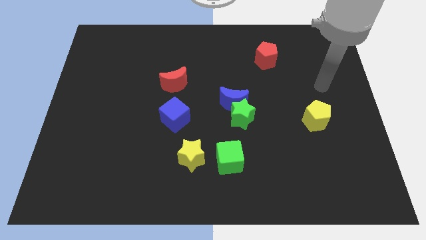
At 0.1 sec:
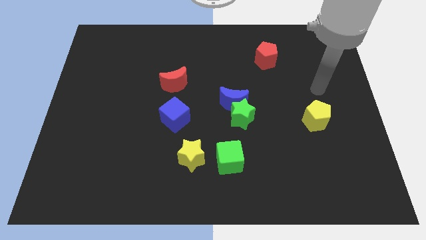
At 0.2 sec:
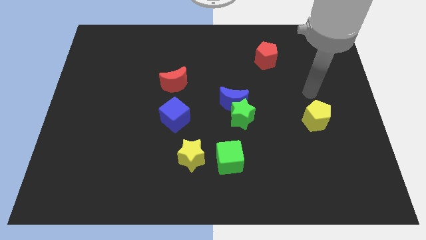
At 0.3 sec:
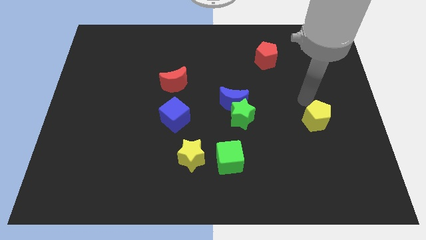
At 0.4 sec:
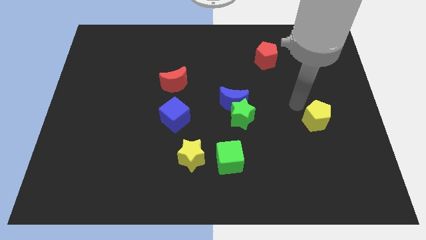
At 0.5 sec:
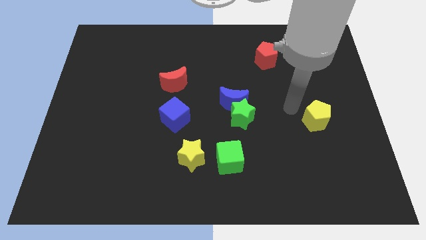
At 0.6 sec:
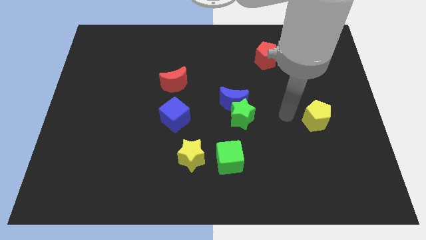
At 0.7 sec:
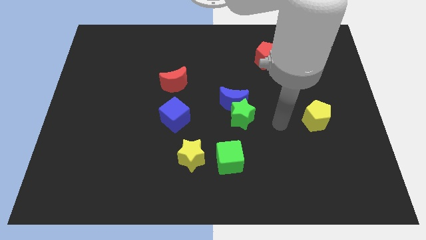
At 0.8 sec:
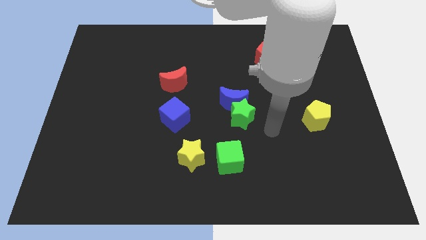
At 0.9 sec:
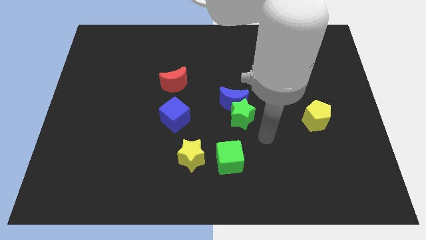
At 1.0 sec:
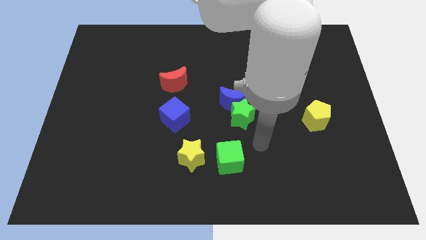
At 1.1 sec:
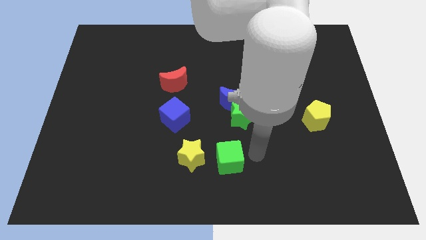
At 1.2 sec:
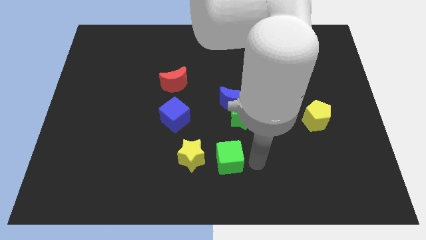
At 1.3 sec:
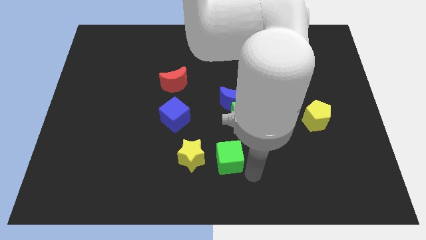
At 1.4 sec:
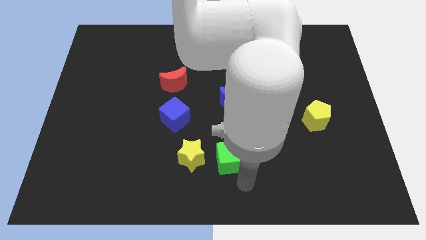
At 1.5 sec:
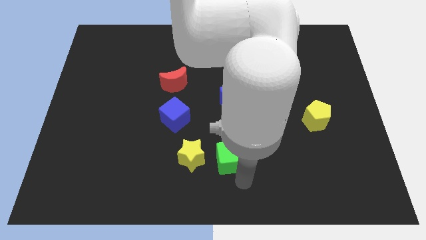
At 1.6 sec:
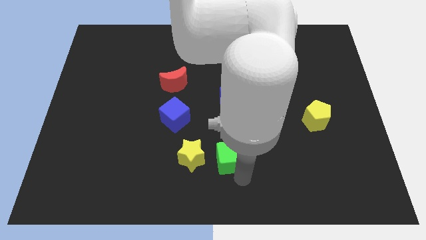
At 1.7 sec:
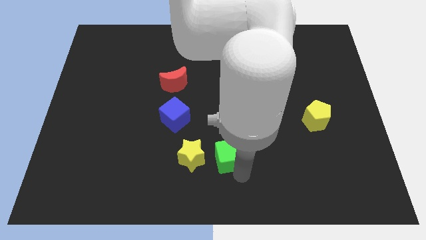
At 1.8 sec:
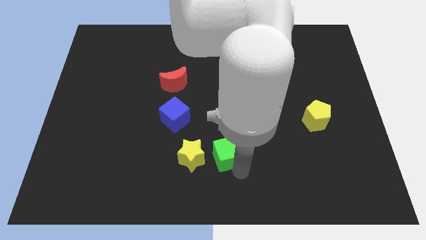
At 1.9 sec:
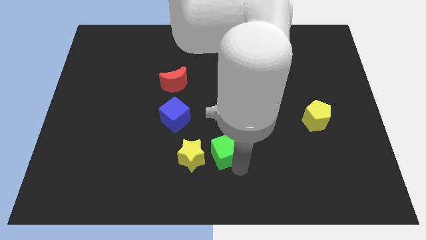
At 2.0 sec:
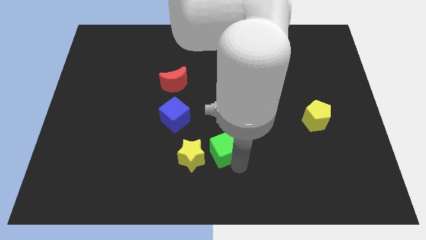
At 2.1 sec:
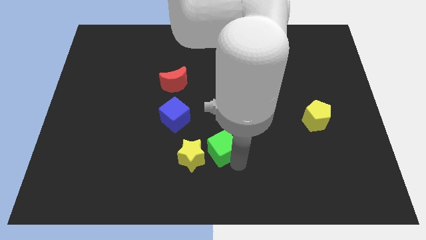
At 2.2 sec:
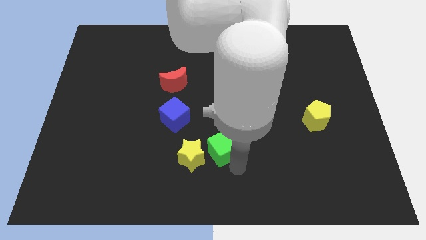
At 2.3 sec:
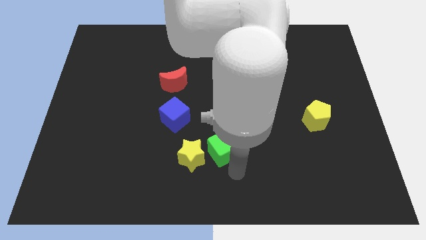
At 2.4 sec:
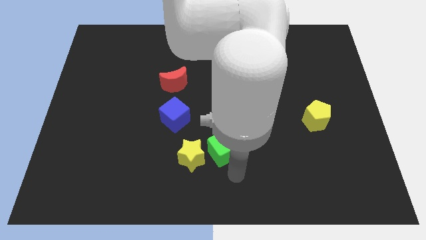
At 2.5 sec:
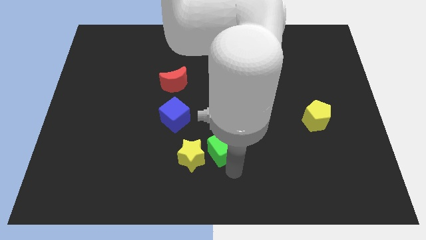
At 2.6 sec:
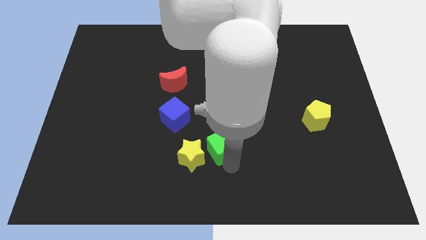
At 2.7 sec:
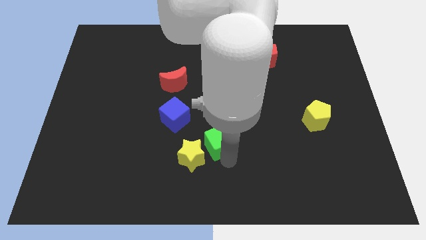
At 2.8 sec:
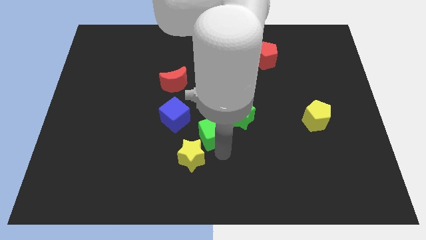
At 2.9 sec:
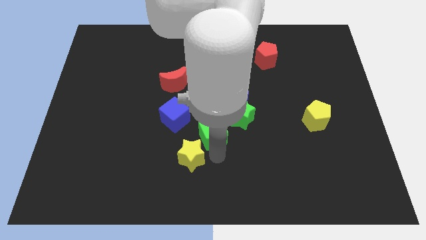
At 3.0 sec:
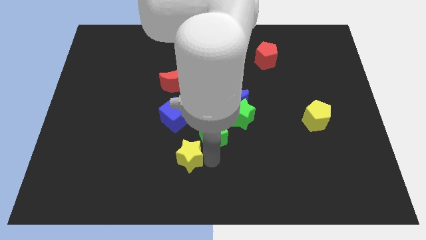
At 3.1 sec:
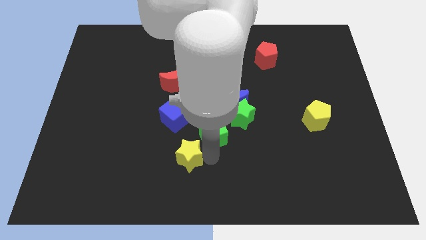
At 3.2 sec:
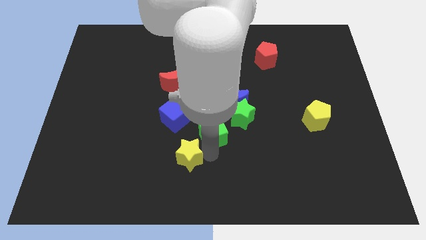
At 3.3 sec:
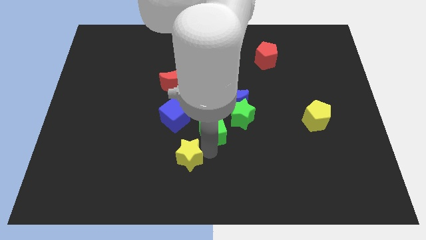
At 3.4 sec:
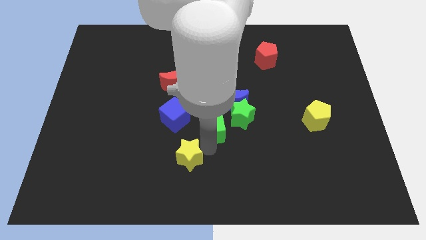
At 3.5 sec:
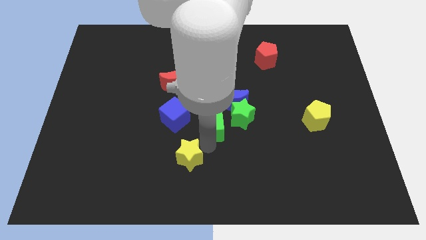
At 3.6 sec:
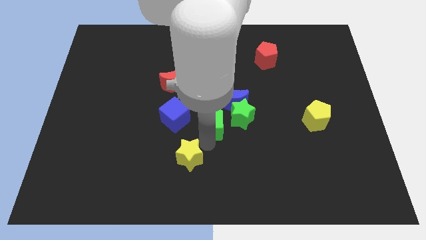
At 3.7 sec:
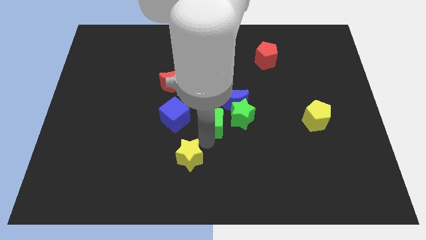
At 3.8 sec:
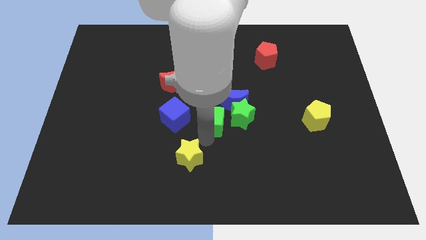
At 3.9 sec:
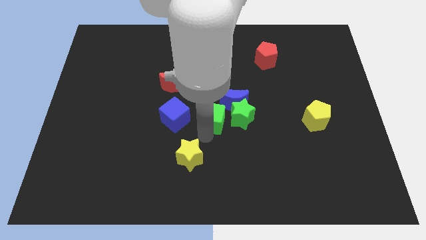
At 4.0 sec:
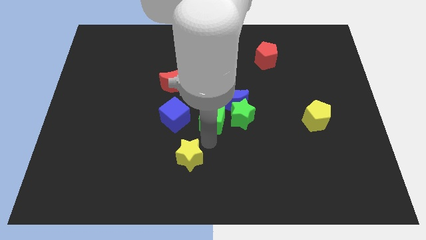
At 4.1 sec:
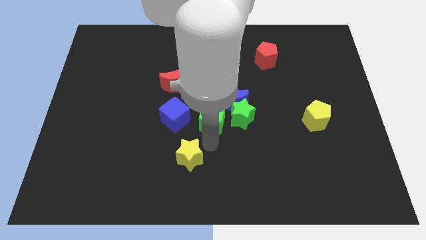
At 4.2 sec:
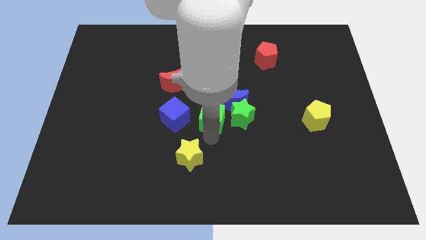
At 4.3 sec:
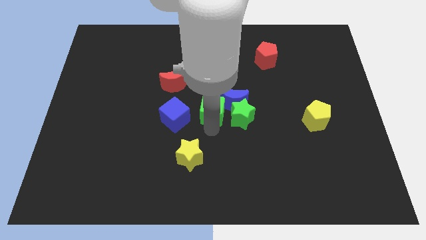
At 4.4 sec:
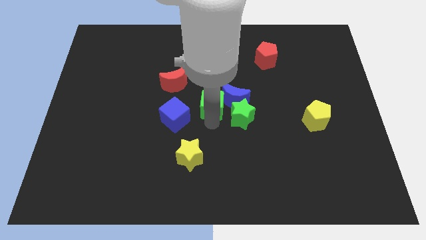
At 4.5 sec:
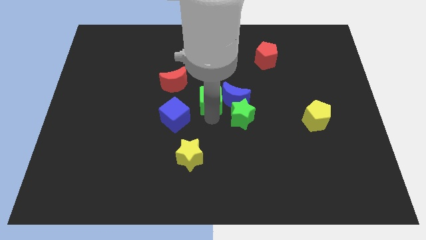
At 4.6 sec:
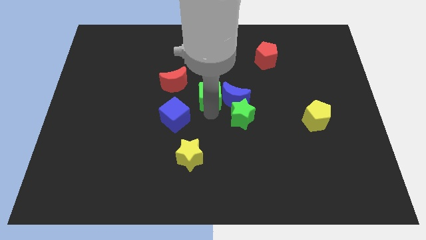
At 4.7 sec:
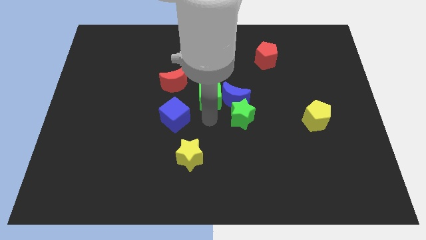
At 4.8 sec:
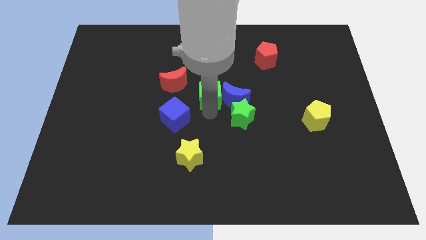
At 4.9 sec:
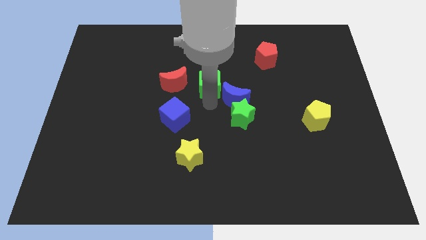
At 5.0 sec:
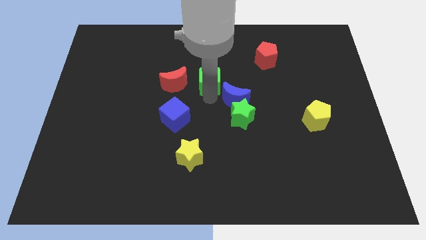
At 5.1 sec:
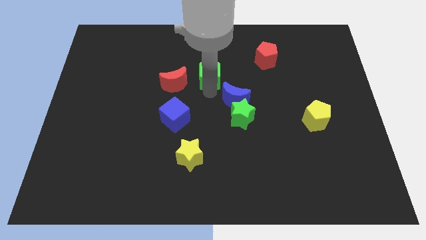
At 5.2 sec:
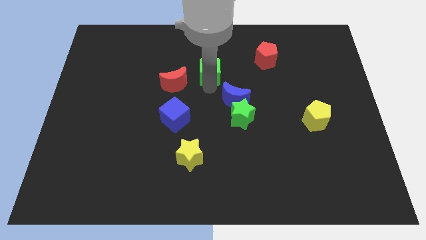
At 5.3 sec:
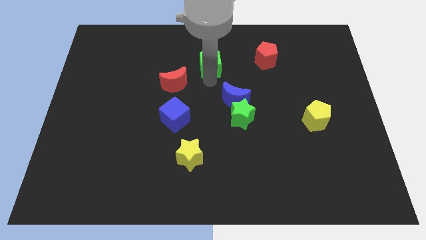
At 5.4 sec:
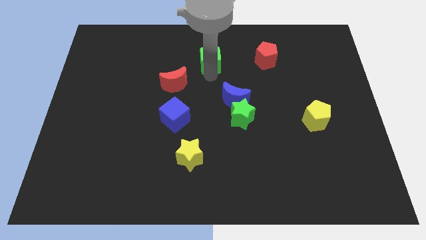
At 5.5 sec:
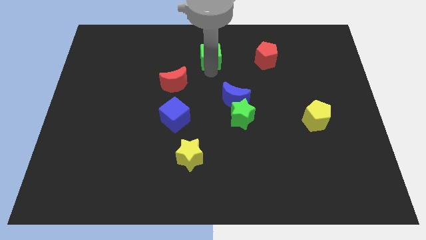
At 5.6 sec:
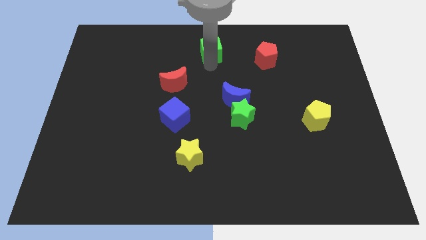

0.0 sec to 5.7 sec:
move the green cube to the top side

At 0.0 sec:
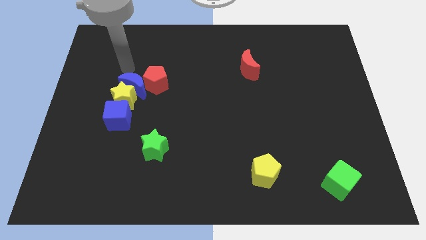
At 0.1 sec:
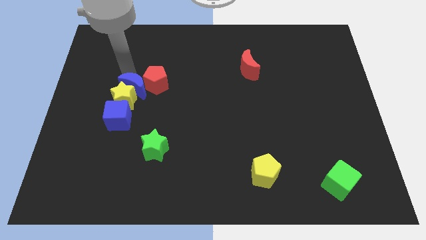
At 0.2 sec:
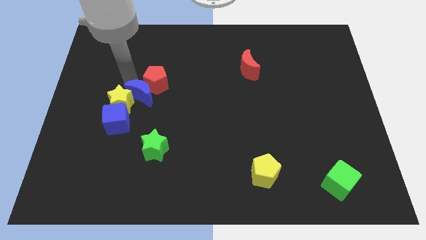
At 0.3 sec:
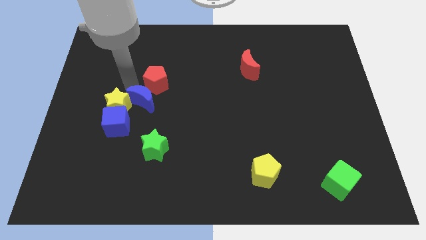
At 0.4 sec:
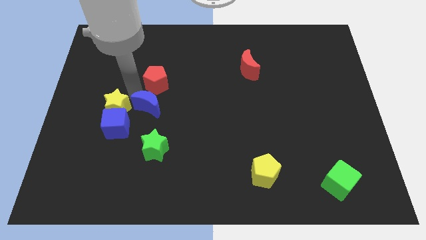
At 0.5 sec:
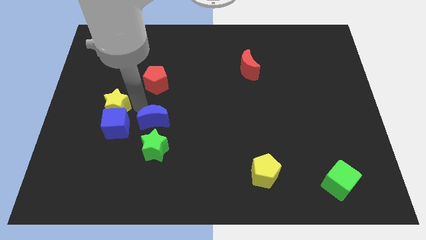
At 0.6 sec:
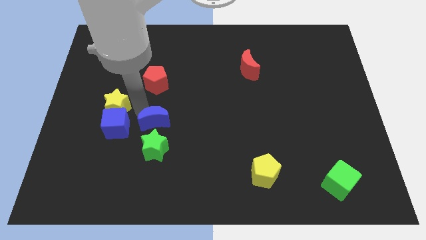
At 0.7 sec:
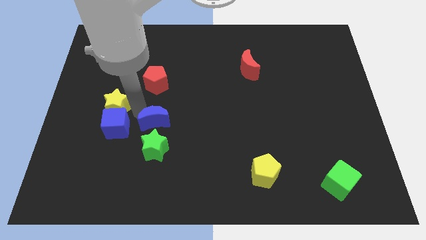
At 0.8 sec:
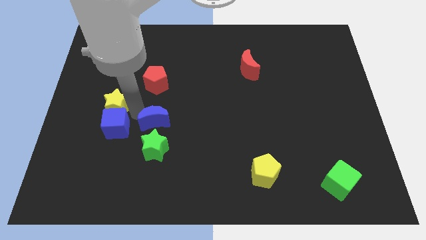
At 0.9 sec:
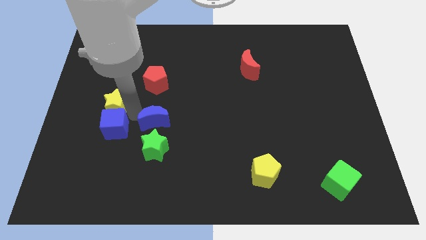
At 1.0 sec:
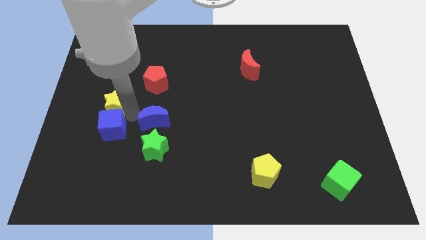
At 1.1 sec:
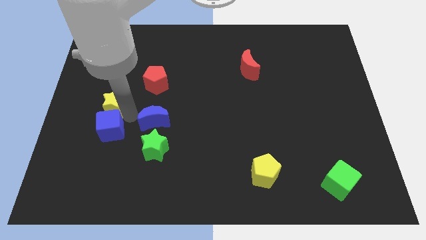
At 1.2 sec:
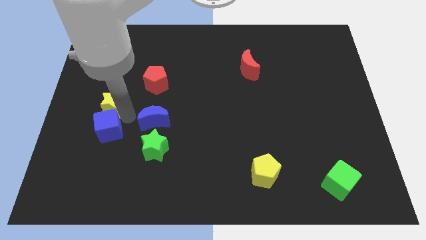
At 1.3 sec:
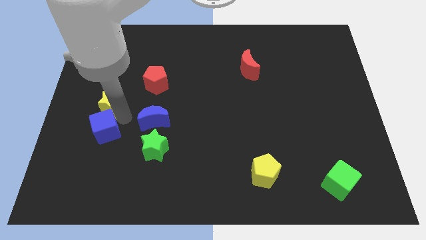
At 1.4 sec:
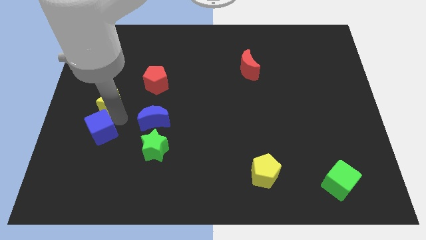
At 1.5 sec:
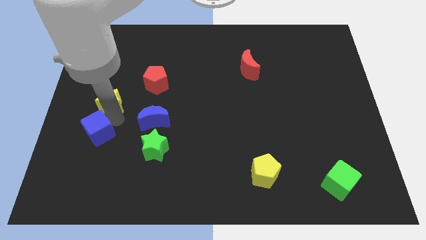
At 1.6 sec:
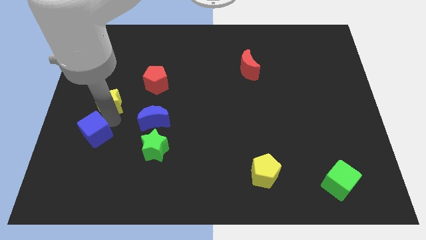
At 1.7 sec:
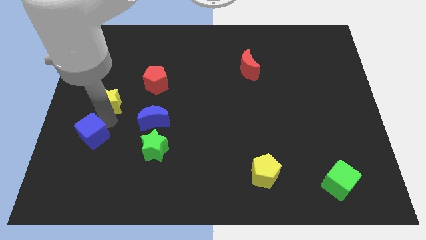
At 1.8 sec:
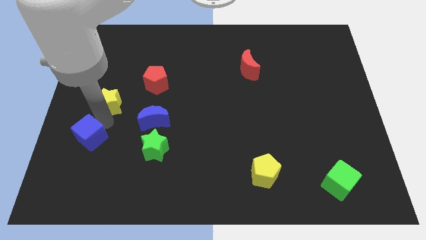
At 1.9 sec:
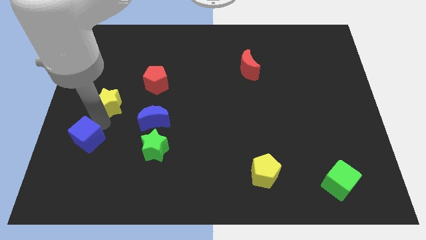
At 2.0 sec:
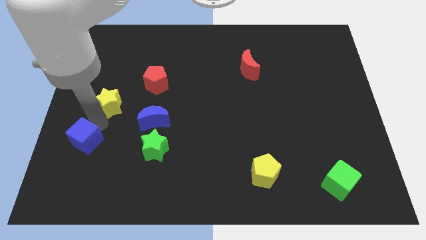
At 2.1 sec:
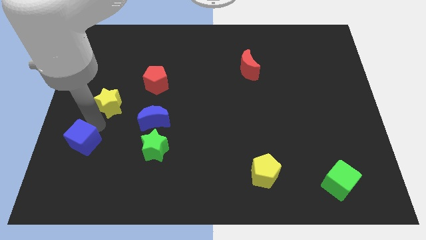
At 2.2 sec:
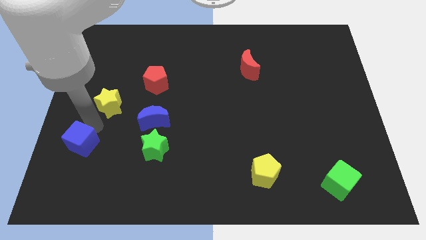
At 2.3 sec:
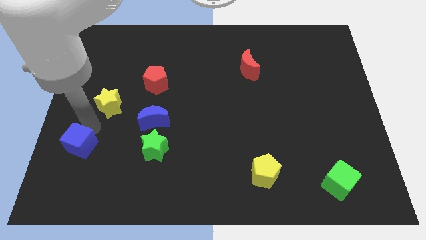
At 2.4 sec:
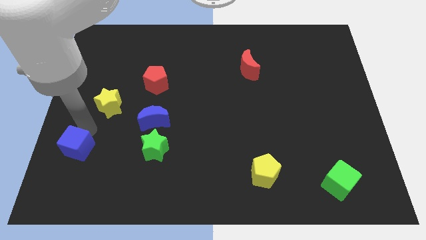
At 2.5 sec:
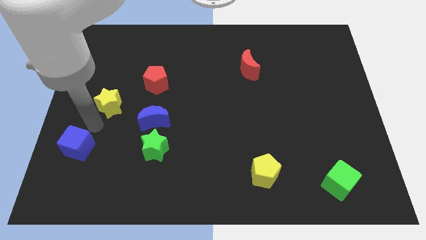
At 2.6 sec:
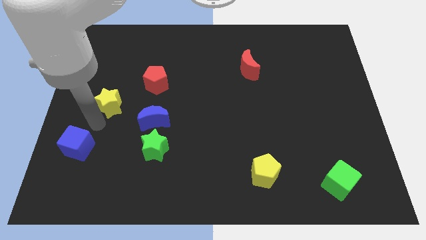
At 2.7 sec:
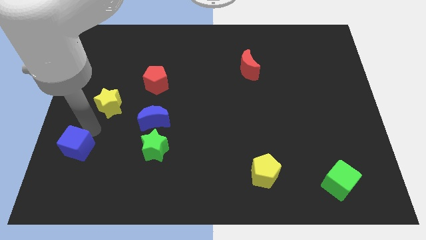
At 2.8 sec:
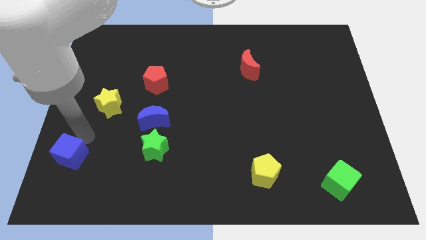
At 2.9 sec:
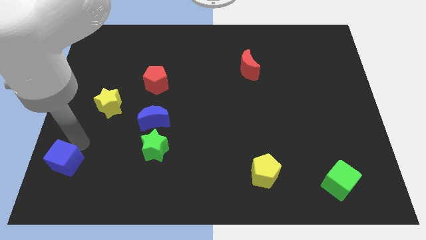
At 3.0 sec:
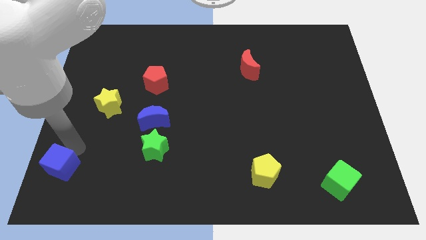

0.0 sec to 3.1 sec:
push the blue cube to the bottom left corner
